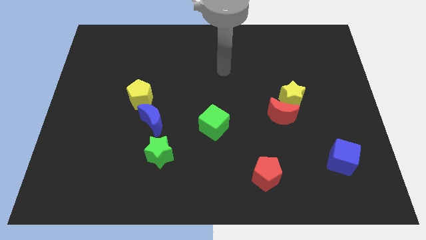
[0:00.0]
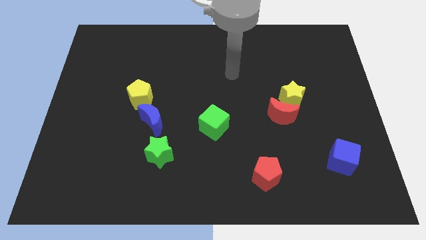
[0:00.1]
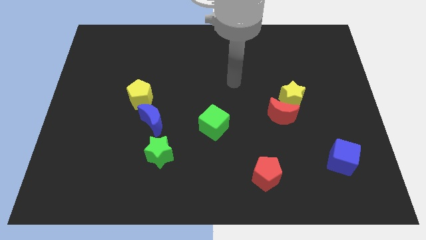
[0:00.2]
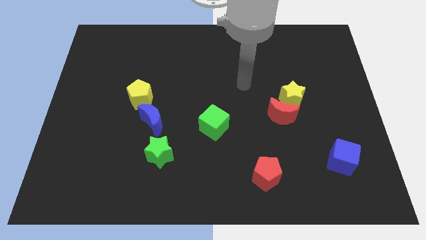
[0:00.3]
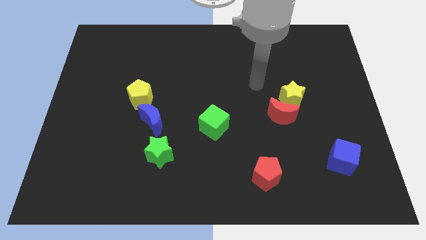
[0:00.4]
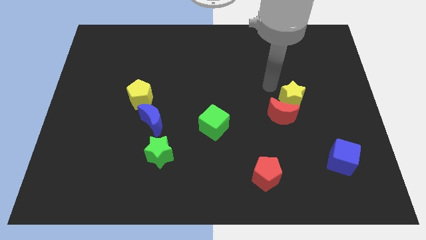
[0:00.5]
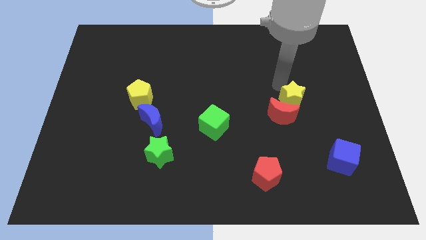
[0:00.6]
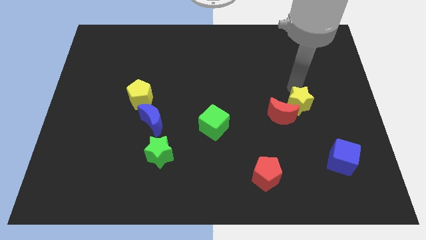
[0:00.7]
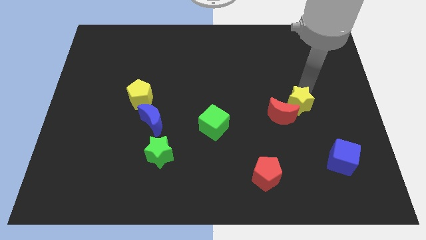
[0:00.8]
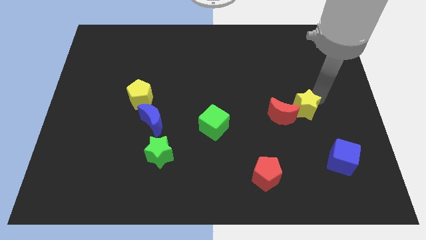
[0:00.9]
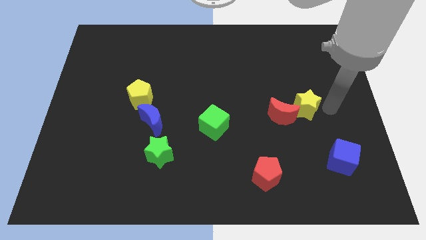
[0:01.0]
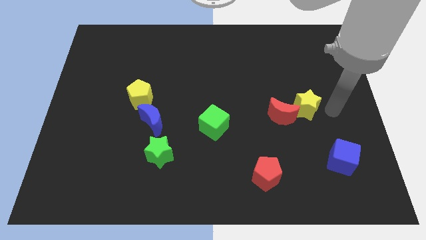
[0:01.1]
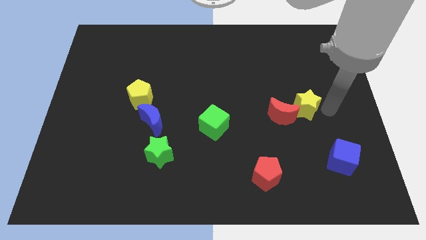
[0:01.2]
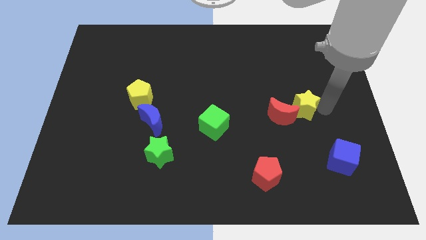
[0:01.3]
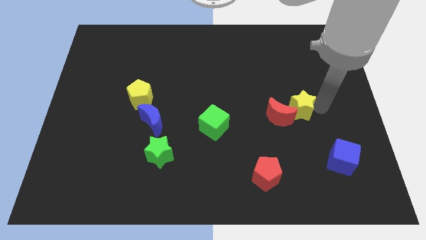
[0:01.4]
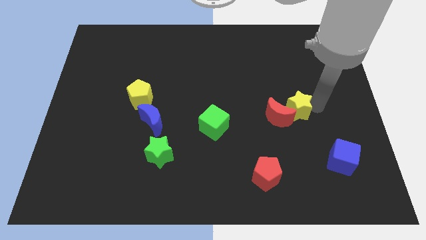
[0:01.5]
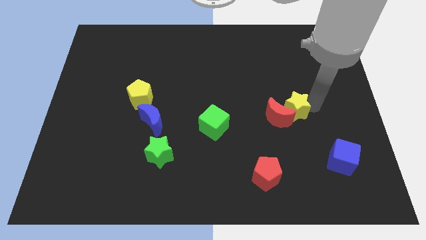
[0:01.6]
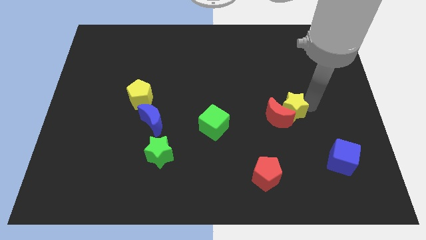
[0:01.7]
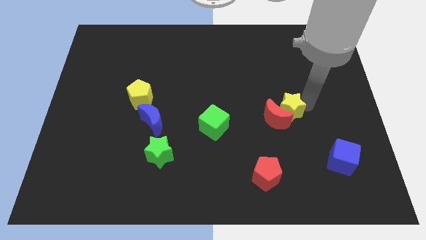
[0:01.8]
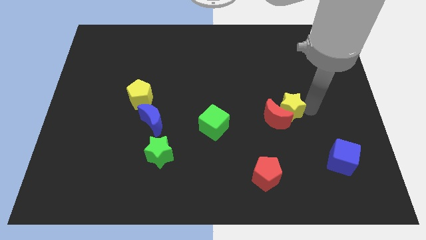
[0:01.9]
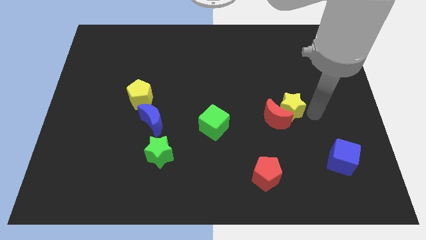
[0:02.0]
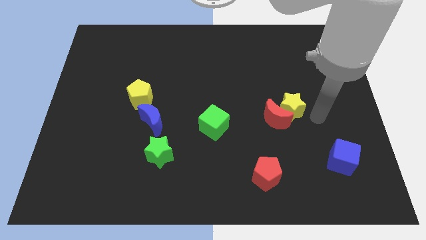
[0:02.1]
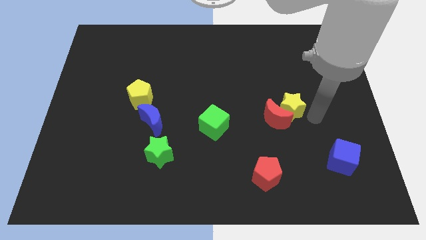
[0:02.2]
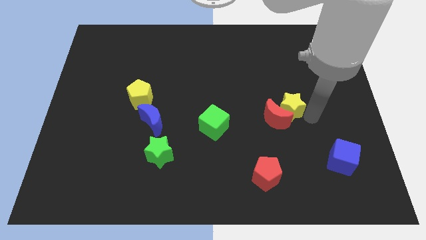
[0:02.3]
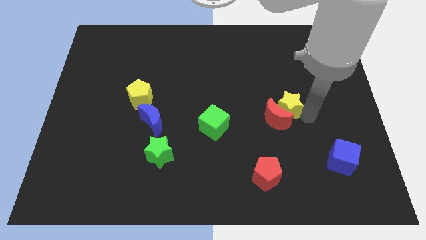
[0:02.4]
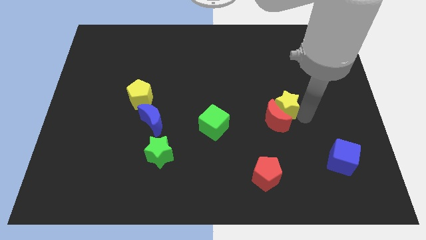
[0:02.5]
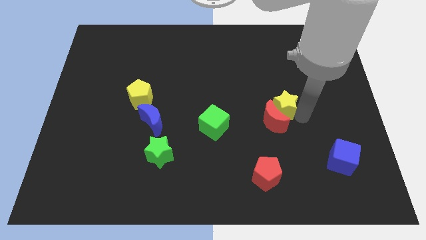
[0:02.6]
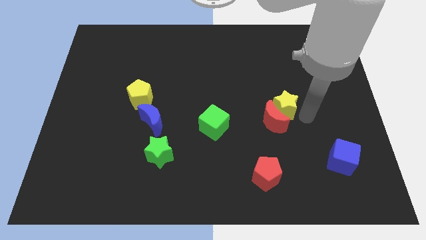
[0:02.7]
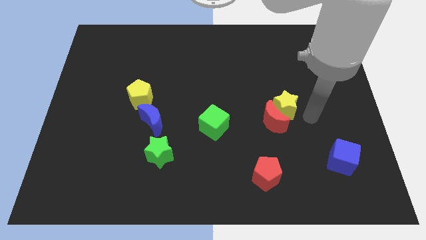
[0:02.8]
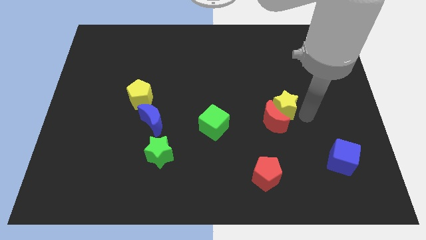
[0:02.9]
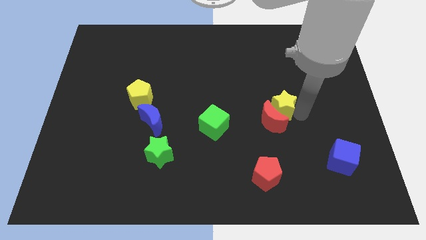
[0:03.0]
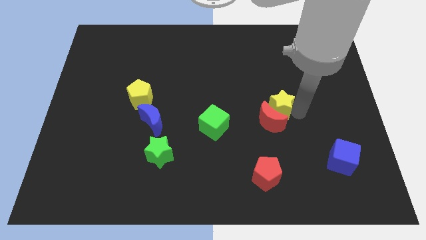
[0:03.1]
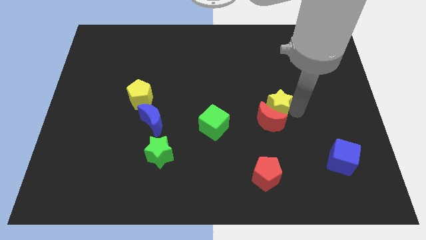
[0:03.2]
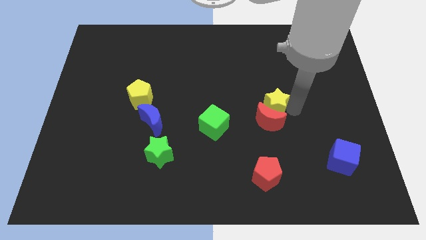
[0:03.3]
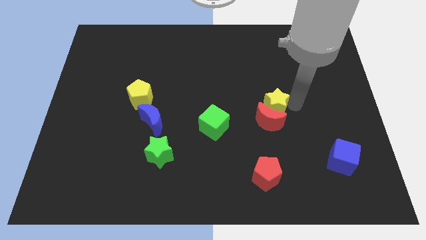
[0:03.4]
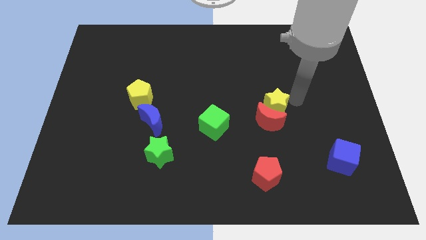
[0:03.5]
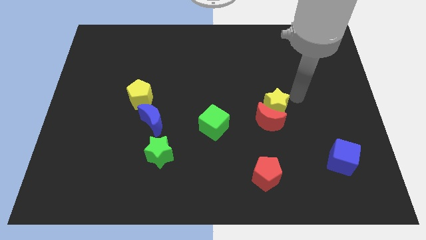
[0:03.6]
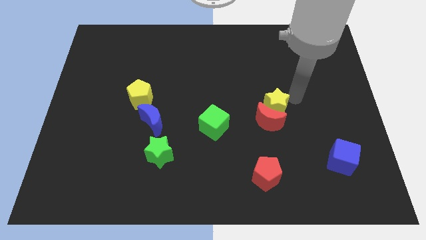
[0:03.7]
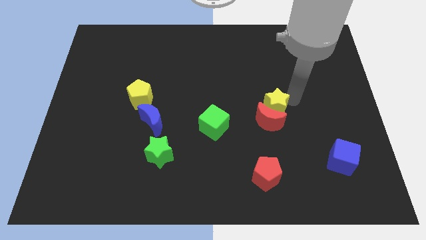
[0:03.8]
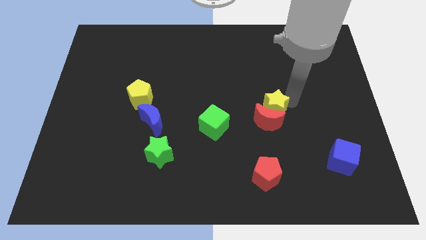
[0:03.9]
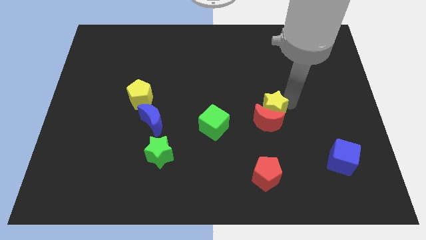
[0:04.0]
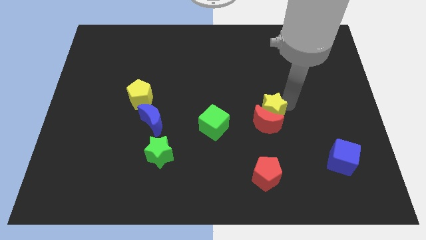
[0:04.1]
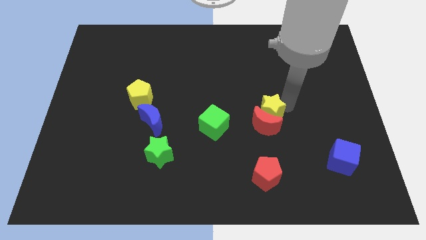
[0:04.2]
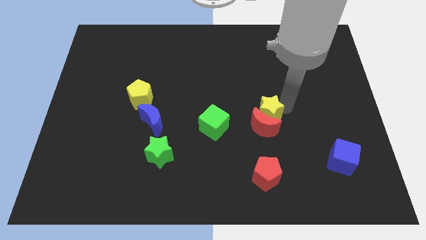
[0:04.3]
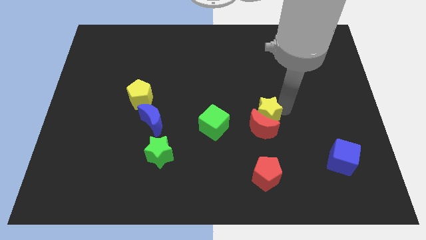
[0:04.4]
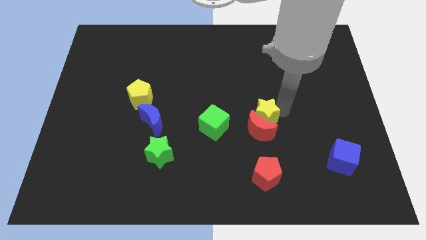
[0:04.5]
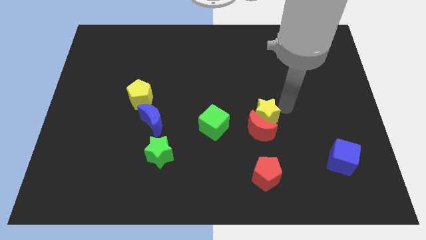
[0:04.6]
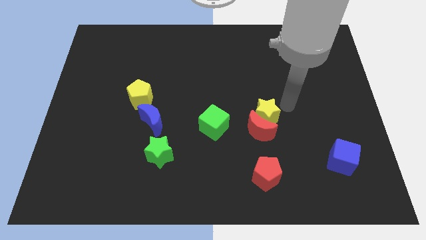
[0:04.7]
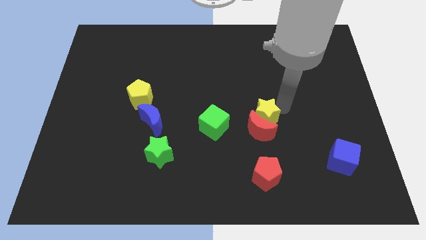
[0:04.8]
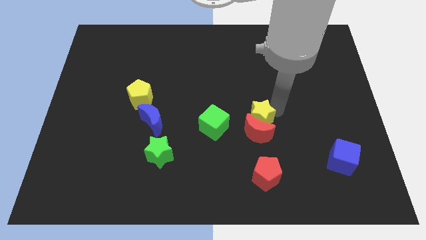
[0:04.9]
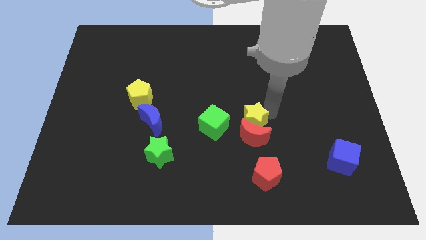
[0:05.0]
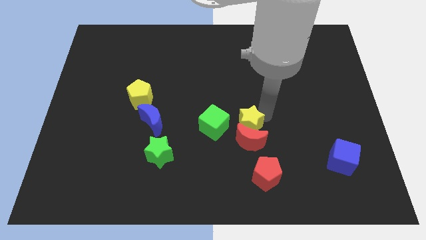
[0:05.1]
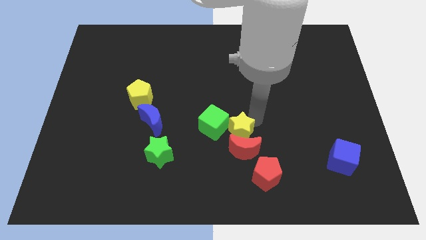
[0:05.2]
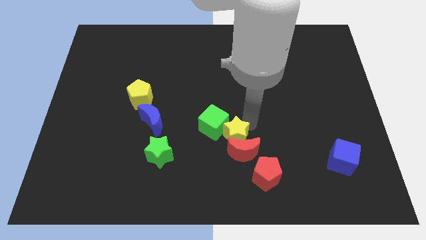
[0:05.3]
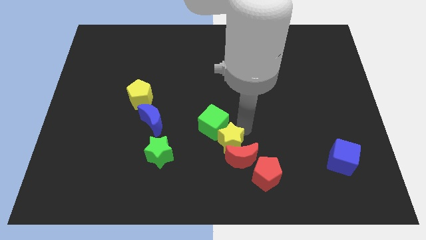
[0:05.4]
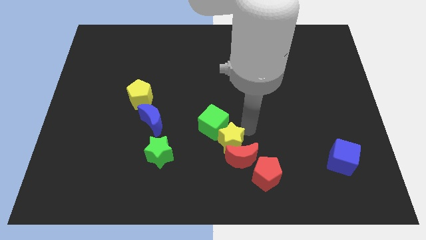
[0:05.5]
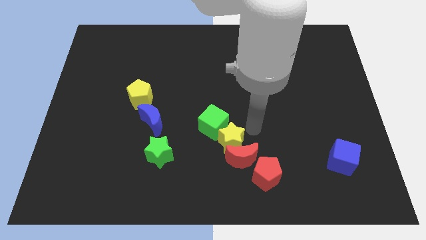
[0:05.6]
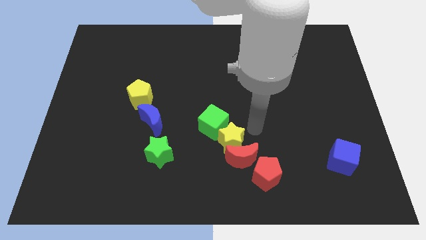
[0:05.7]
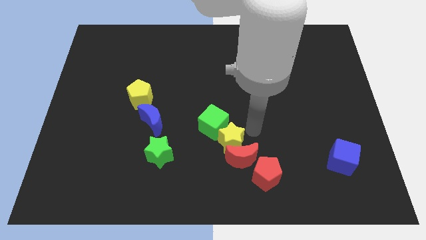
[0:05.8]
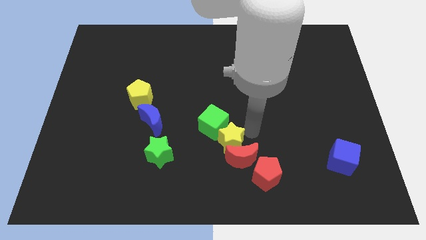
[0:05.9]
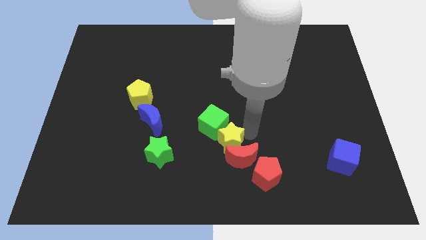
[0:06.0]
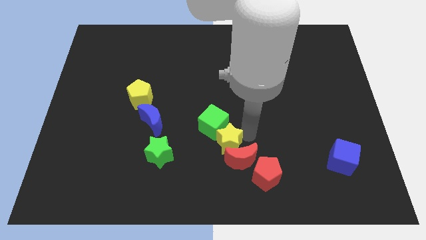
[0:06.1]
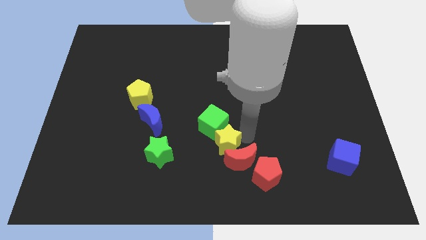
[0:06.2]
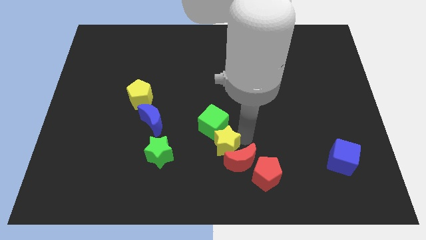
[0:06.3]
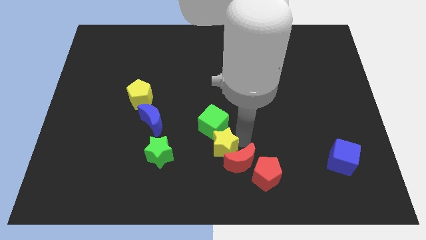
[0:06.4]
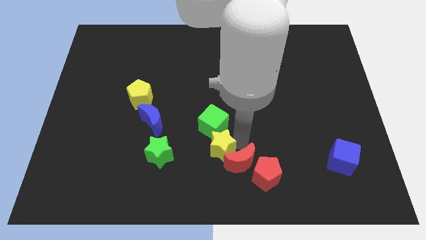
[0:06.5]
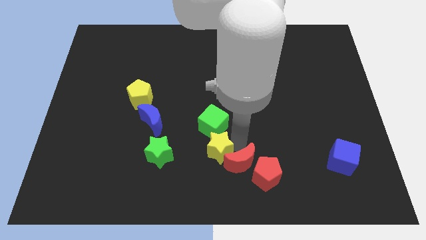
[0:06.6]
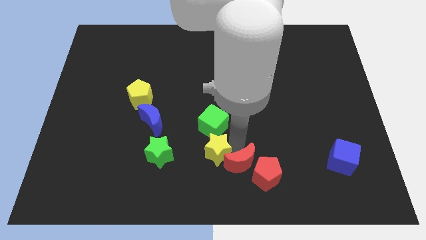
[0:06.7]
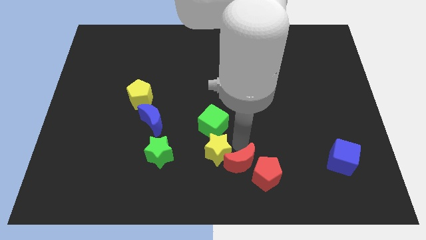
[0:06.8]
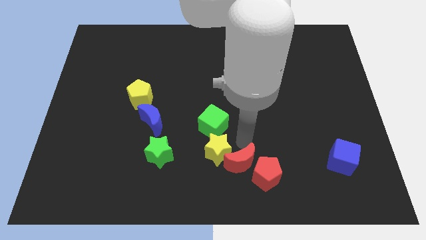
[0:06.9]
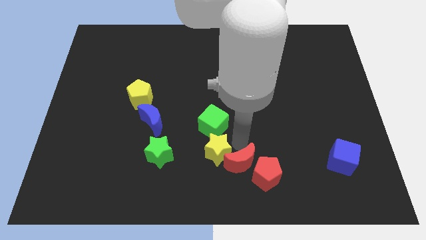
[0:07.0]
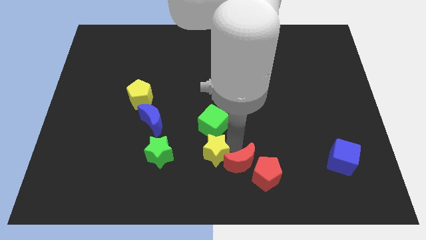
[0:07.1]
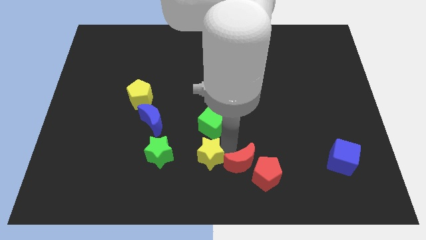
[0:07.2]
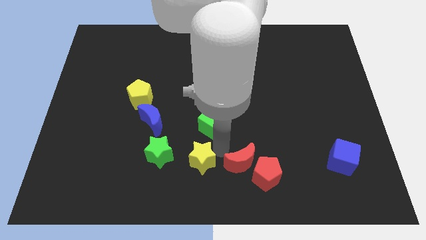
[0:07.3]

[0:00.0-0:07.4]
put the yellow star to the bottom right of the green star
